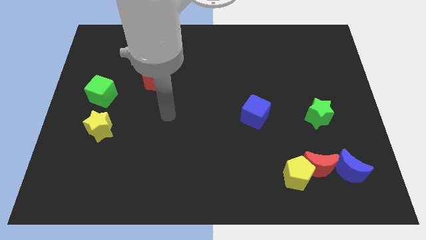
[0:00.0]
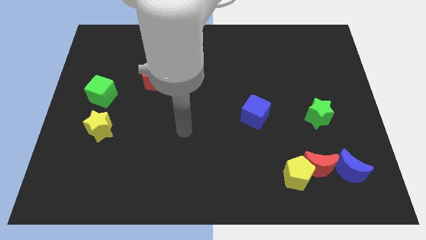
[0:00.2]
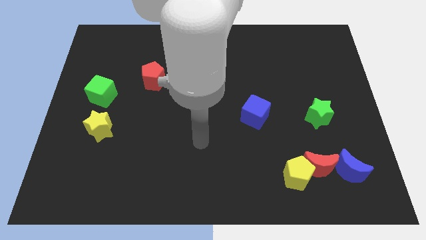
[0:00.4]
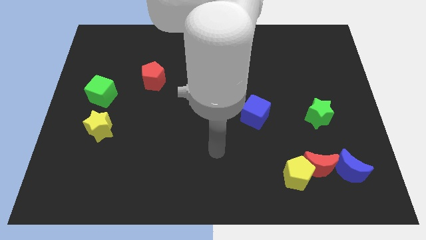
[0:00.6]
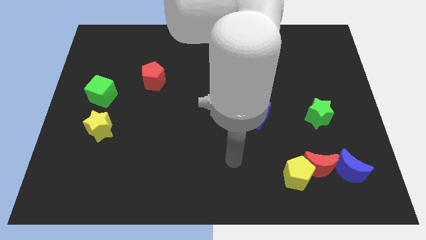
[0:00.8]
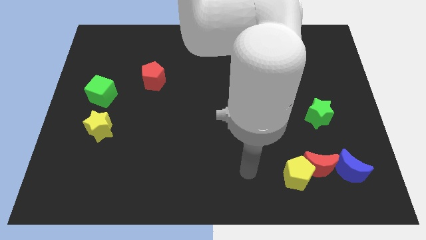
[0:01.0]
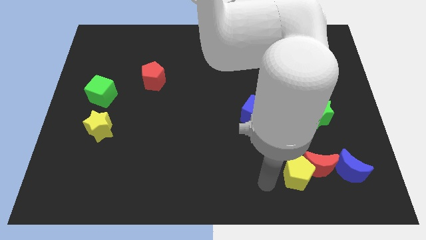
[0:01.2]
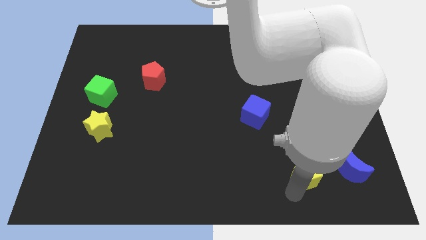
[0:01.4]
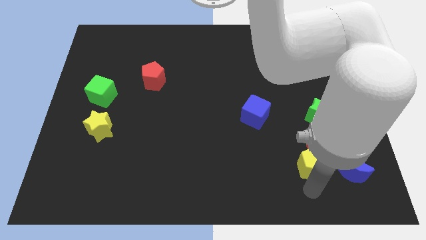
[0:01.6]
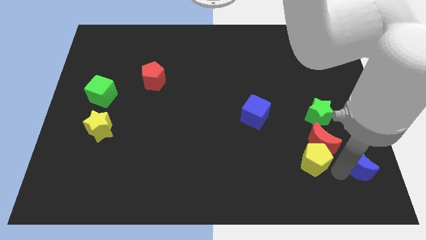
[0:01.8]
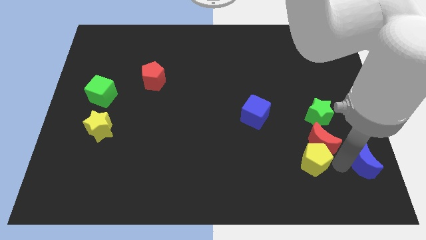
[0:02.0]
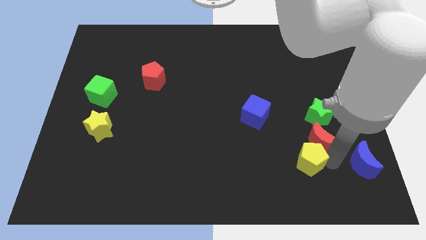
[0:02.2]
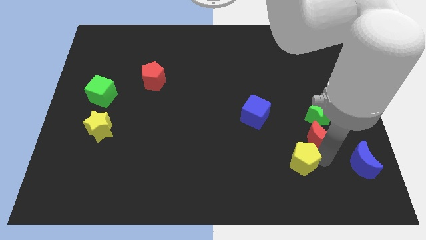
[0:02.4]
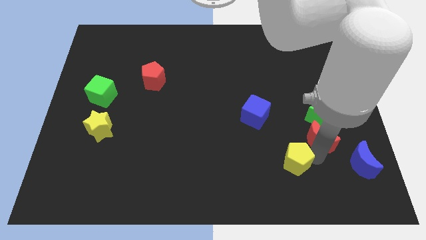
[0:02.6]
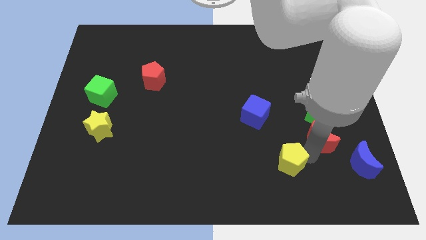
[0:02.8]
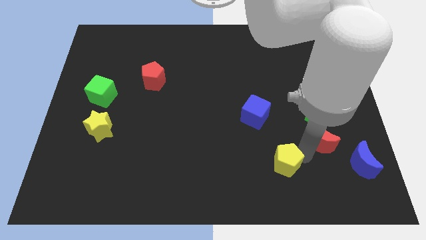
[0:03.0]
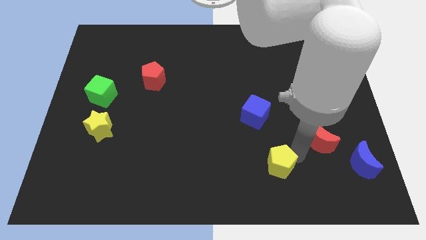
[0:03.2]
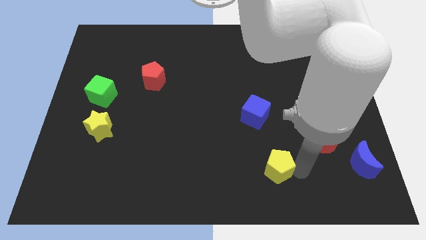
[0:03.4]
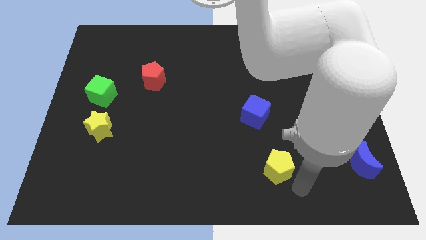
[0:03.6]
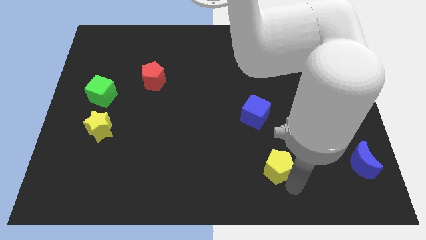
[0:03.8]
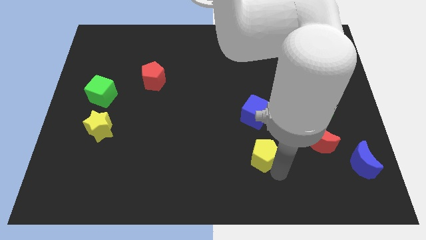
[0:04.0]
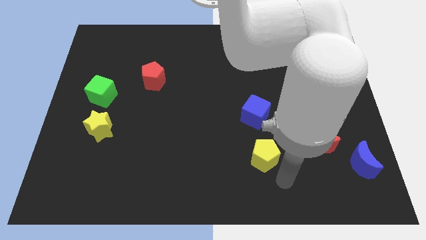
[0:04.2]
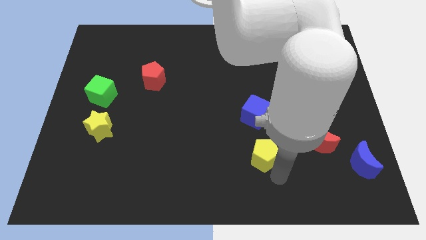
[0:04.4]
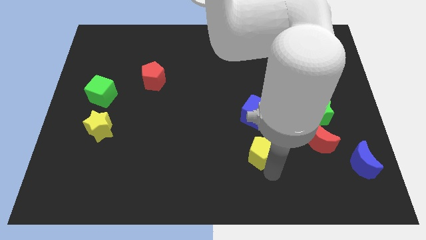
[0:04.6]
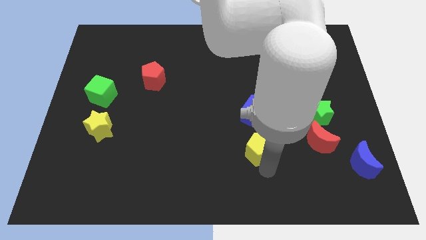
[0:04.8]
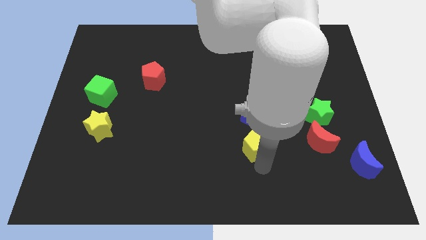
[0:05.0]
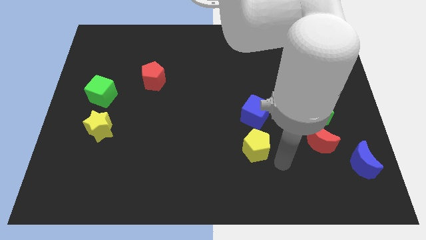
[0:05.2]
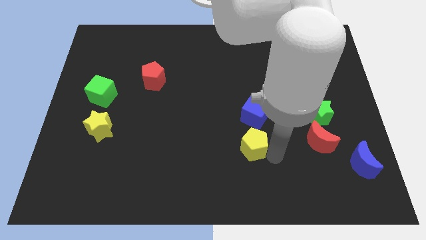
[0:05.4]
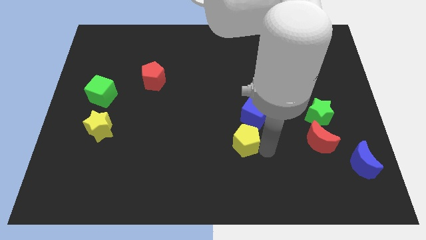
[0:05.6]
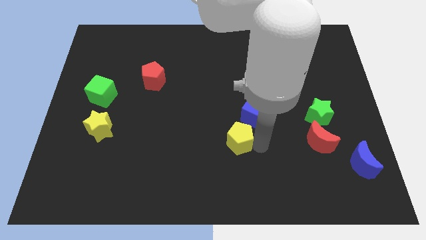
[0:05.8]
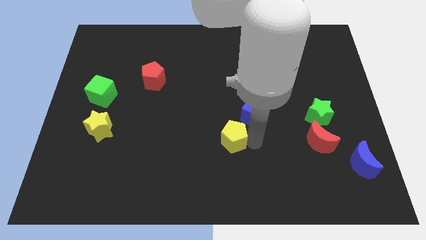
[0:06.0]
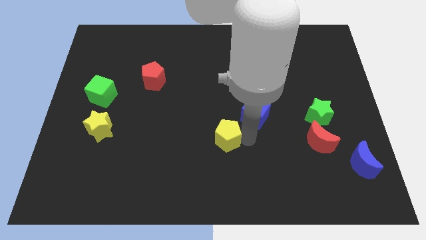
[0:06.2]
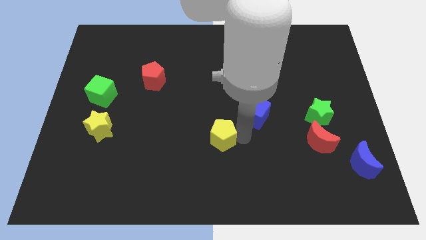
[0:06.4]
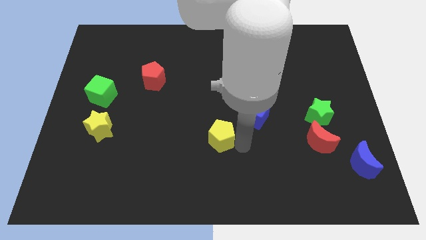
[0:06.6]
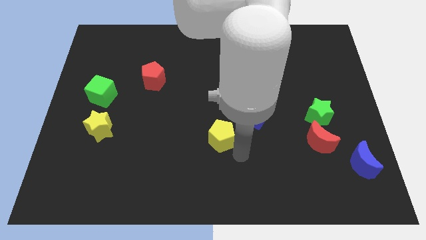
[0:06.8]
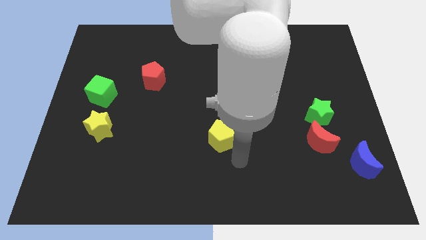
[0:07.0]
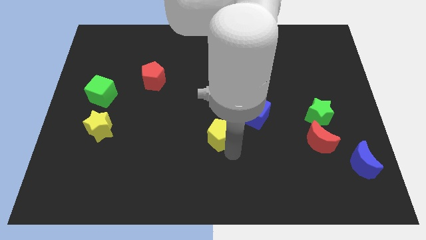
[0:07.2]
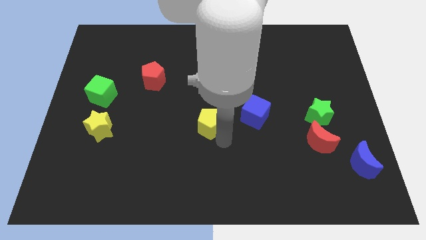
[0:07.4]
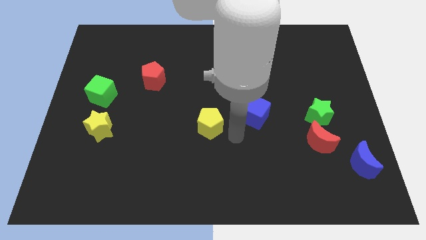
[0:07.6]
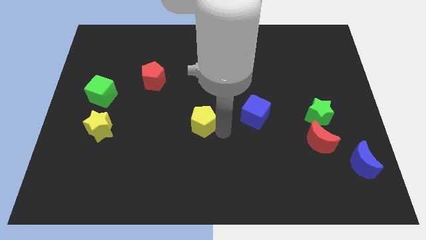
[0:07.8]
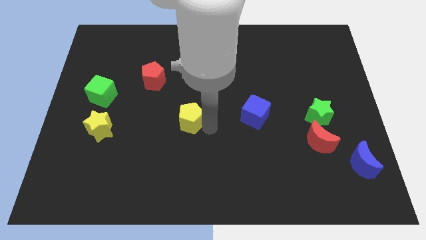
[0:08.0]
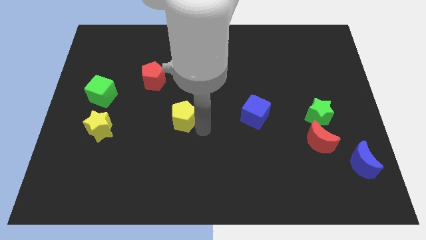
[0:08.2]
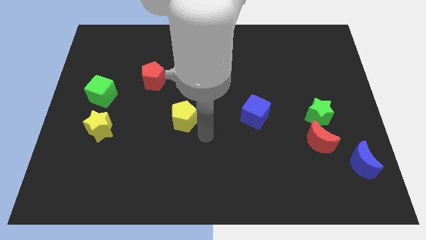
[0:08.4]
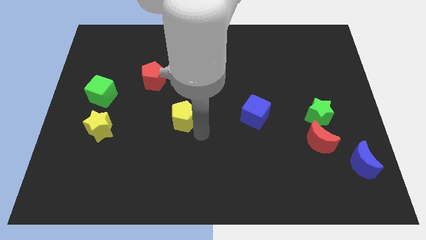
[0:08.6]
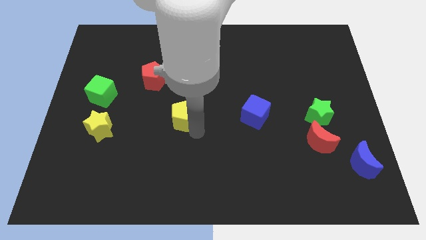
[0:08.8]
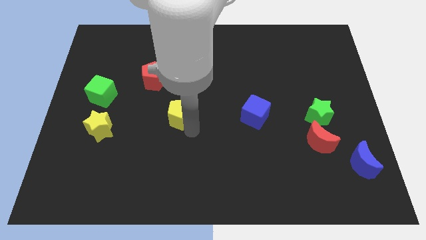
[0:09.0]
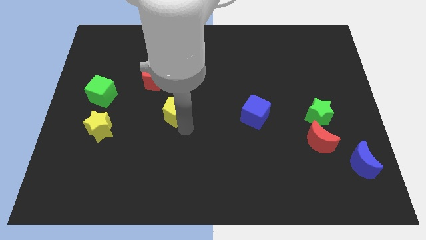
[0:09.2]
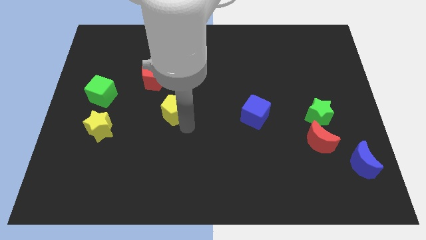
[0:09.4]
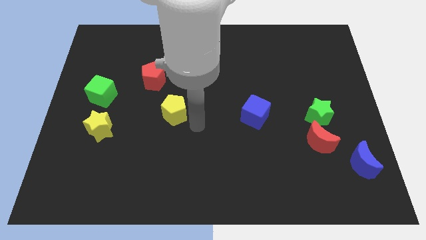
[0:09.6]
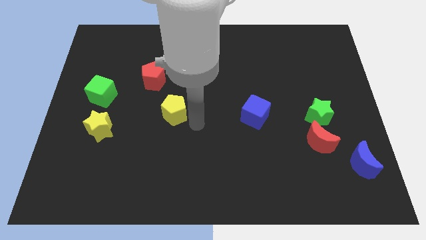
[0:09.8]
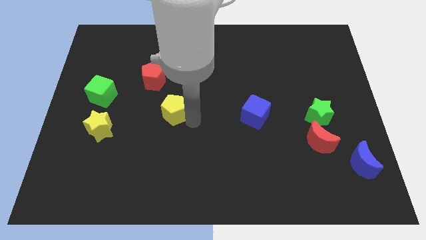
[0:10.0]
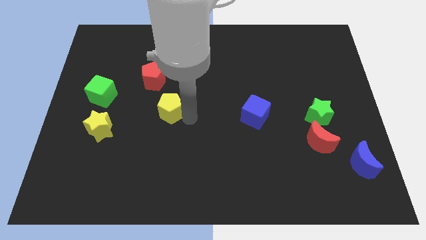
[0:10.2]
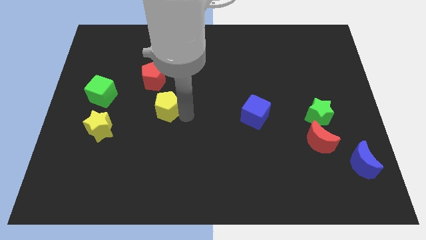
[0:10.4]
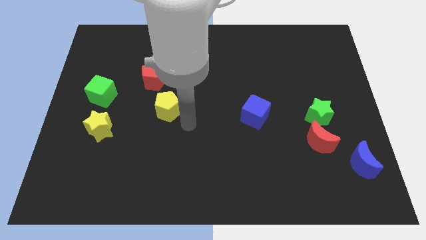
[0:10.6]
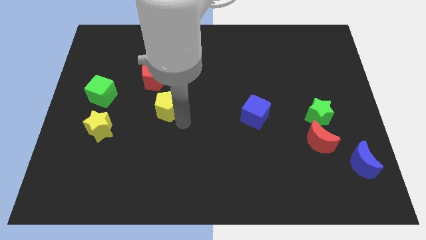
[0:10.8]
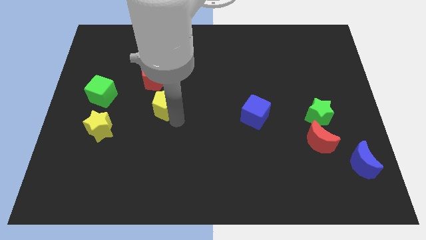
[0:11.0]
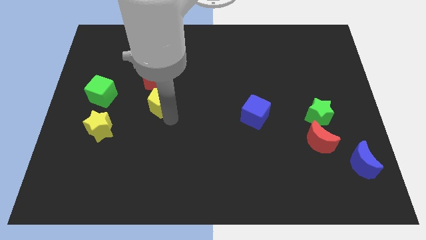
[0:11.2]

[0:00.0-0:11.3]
slide the yellow pentagon to the right of the green cube

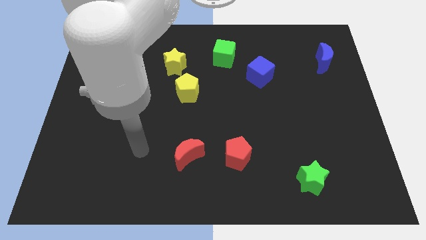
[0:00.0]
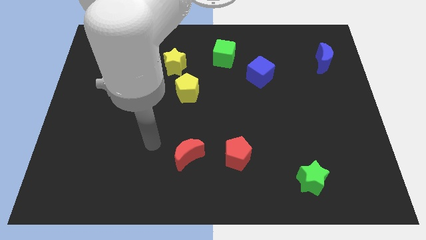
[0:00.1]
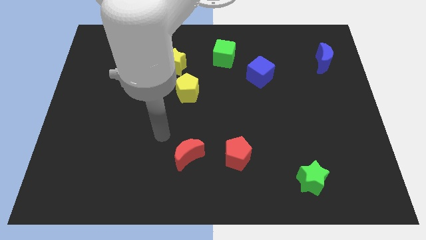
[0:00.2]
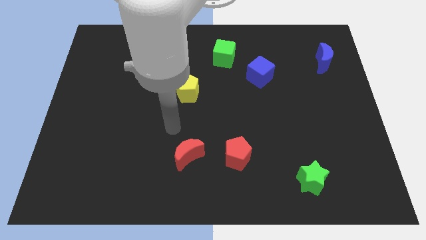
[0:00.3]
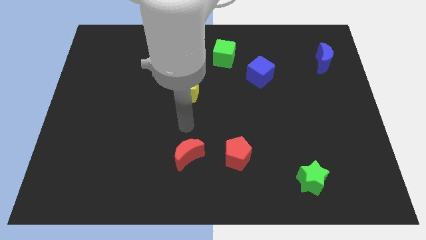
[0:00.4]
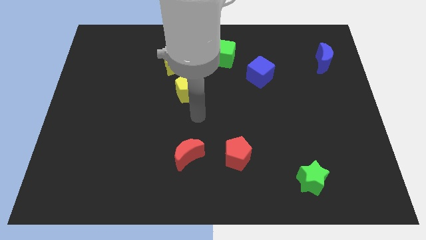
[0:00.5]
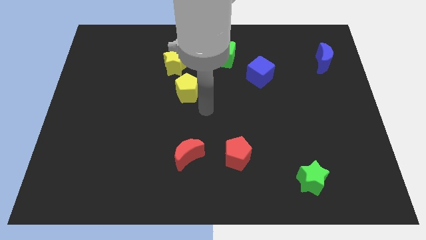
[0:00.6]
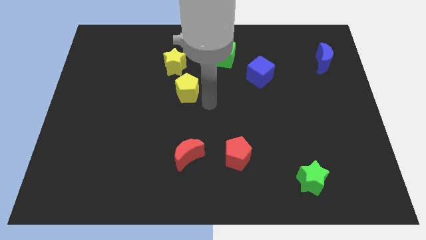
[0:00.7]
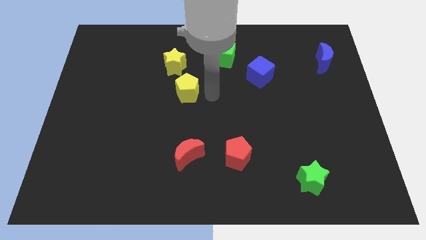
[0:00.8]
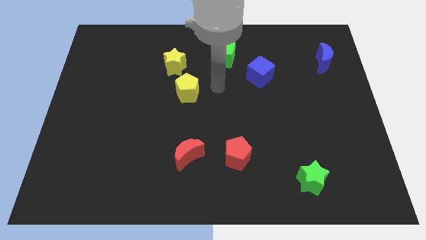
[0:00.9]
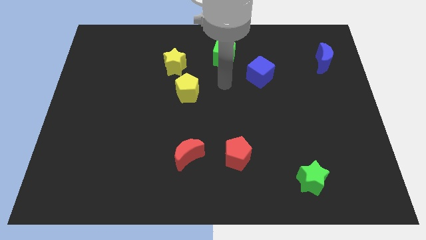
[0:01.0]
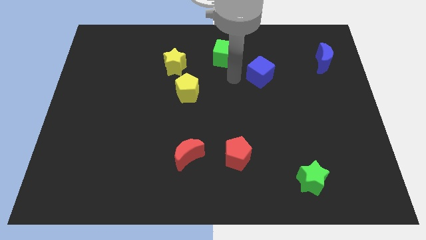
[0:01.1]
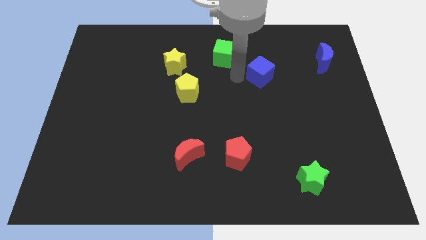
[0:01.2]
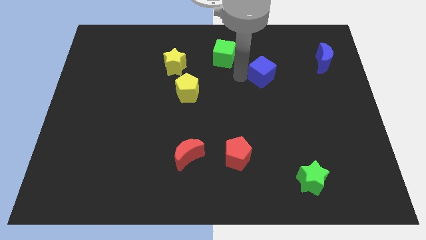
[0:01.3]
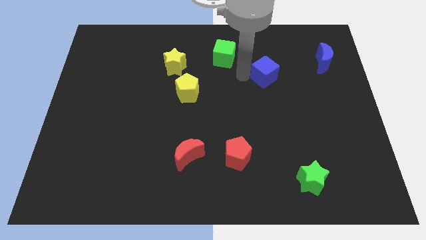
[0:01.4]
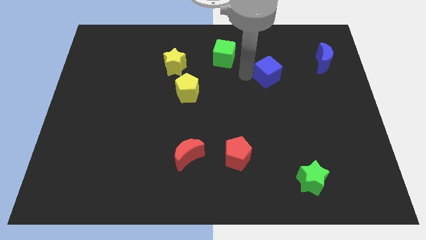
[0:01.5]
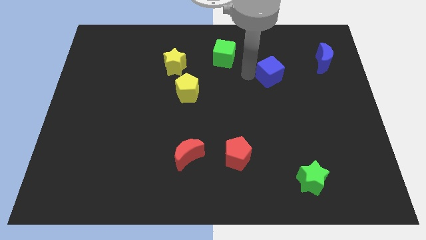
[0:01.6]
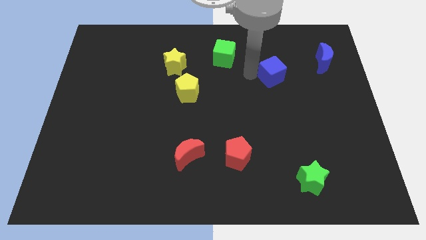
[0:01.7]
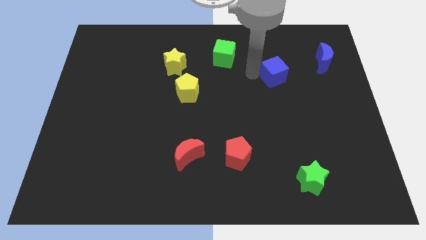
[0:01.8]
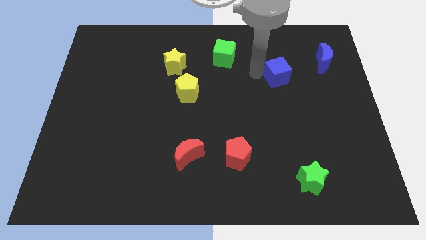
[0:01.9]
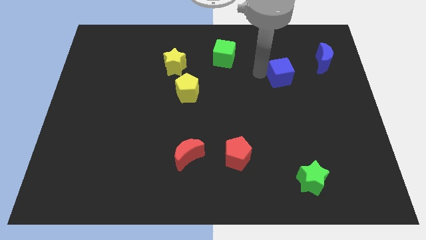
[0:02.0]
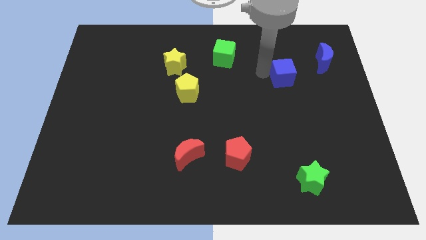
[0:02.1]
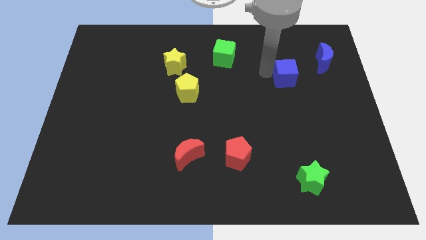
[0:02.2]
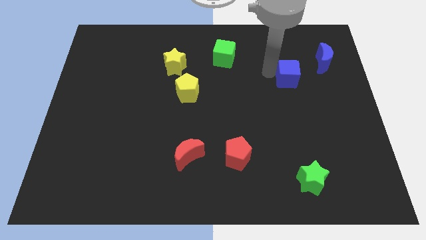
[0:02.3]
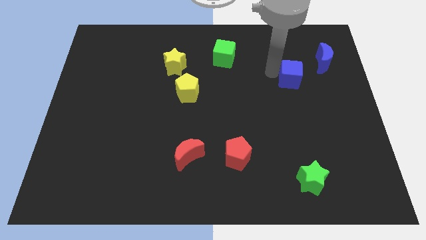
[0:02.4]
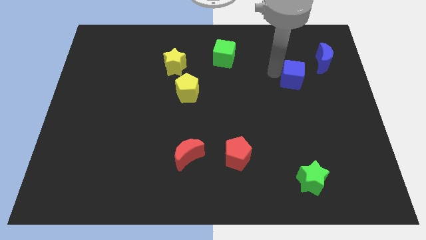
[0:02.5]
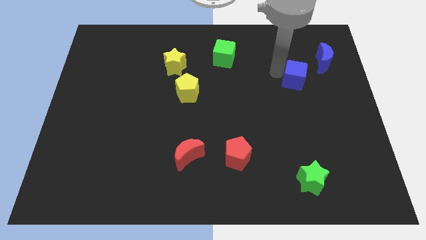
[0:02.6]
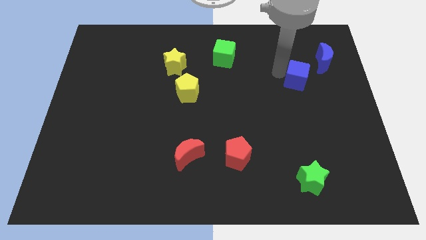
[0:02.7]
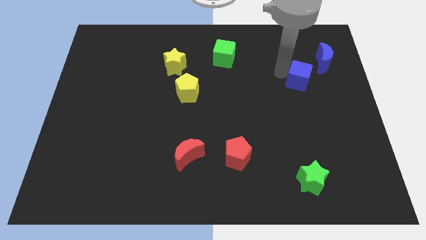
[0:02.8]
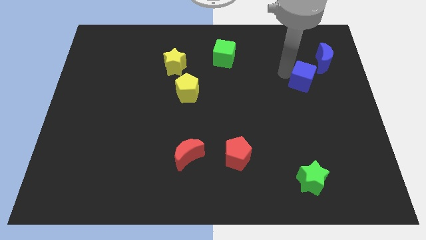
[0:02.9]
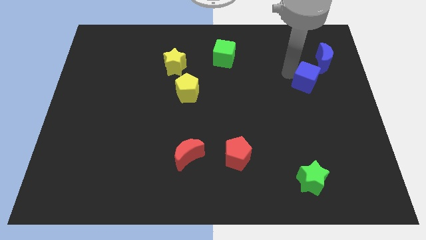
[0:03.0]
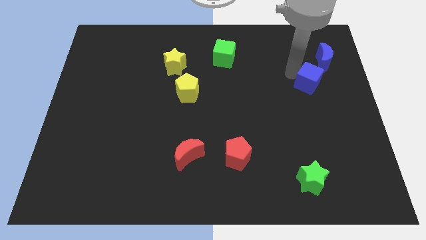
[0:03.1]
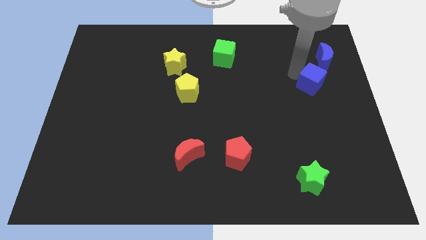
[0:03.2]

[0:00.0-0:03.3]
slide the blue cube to the bottom side of the blue moon
